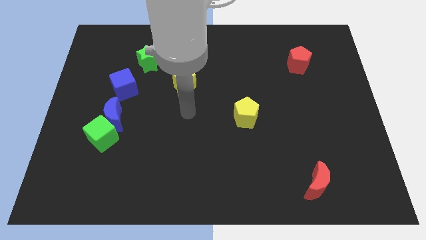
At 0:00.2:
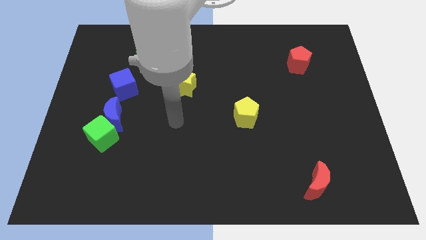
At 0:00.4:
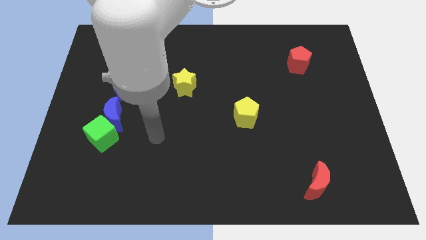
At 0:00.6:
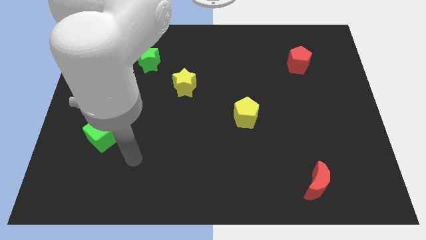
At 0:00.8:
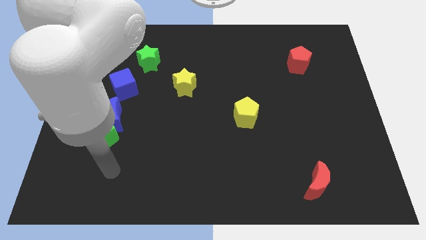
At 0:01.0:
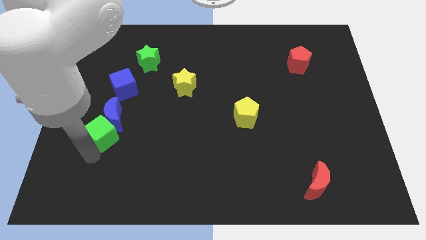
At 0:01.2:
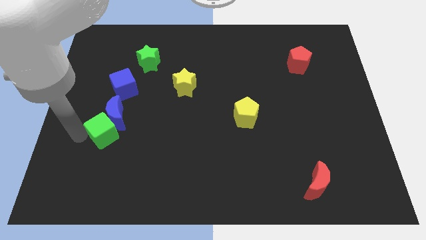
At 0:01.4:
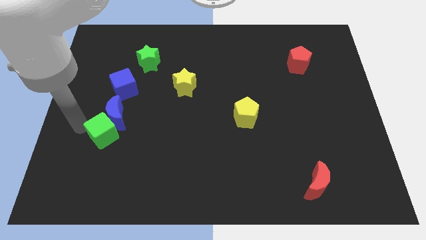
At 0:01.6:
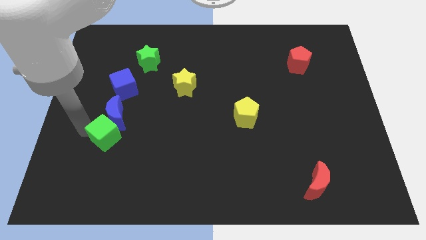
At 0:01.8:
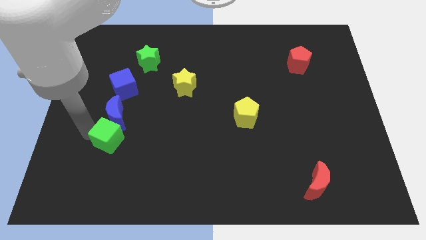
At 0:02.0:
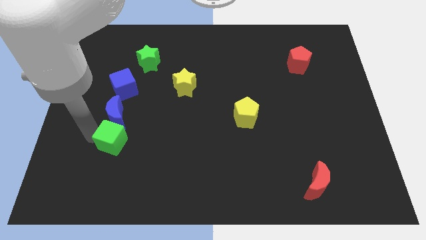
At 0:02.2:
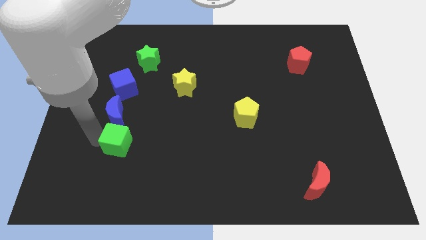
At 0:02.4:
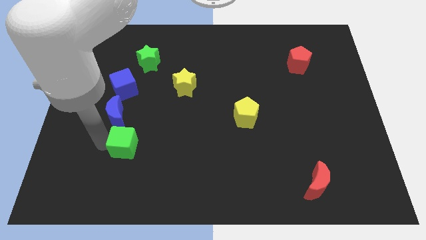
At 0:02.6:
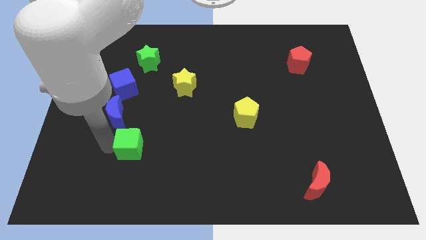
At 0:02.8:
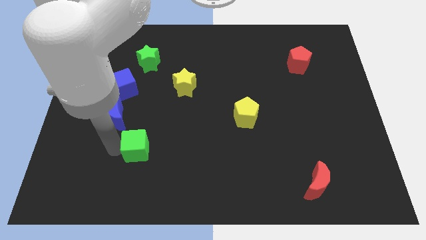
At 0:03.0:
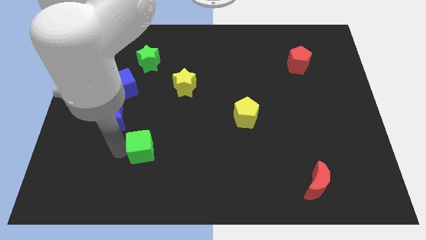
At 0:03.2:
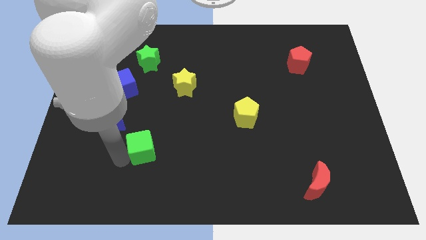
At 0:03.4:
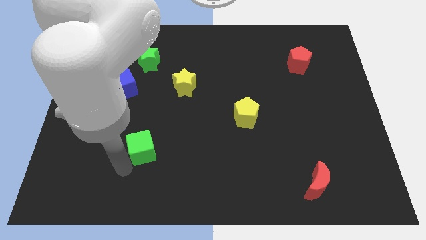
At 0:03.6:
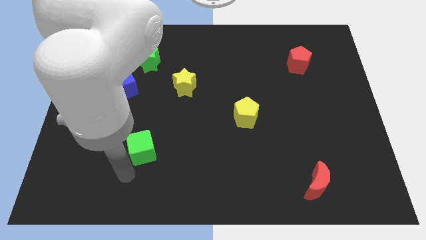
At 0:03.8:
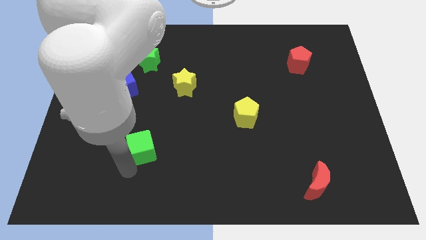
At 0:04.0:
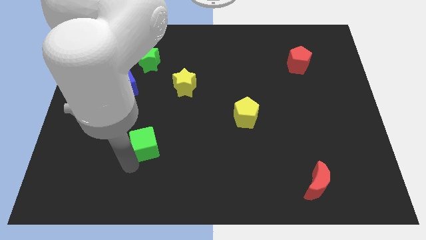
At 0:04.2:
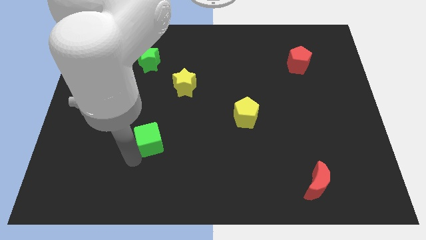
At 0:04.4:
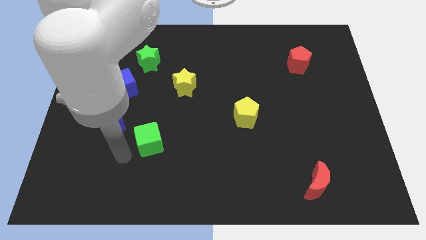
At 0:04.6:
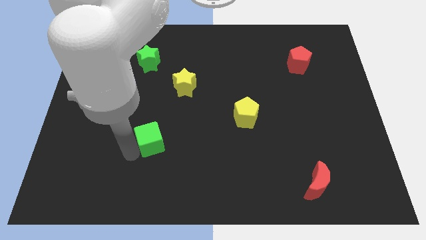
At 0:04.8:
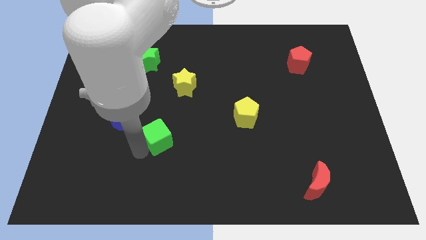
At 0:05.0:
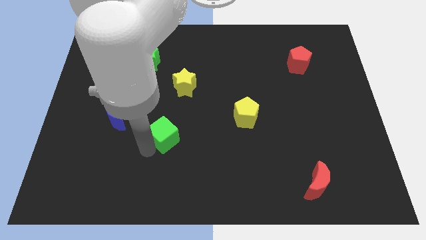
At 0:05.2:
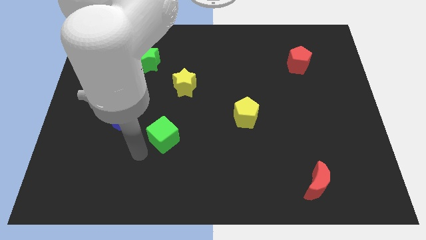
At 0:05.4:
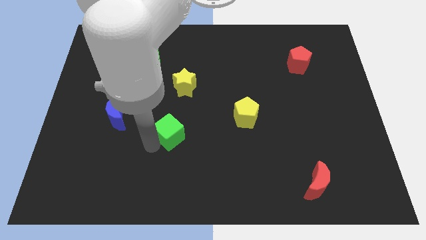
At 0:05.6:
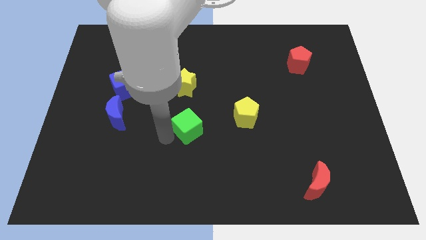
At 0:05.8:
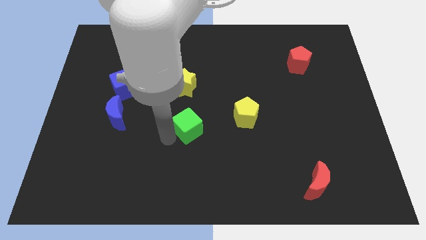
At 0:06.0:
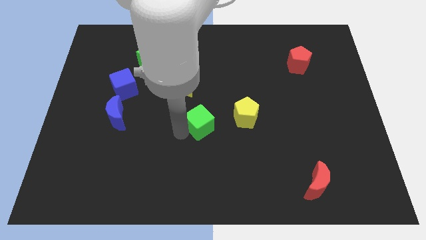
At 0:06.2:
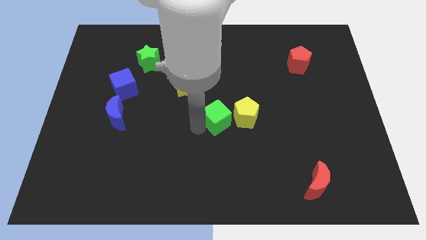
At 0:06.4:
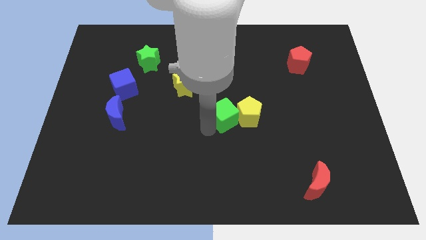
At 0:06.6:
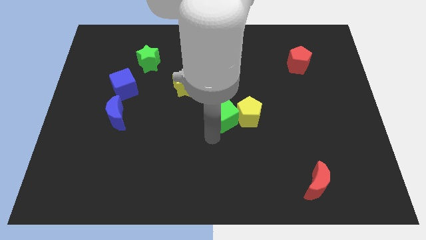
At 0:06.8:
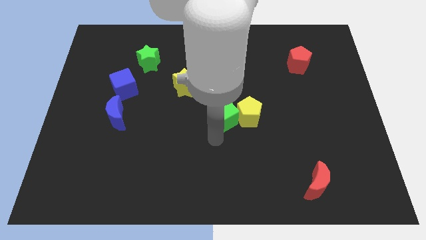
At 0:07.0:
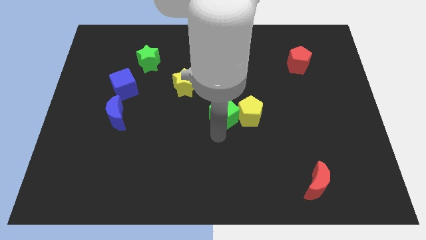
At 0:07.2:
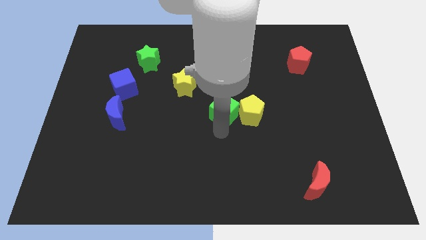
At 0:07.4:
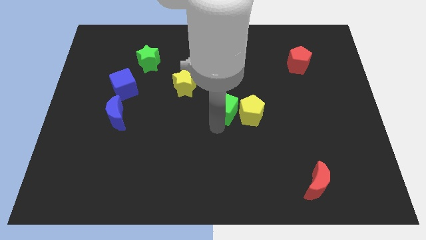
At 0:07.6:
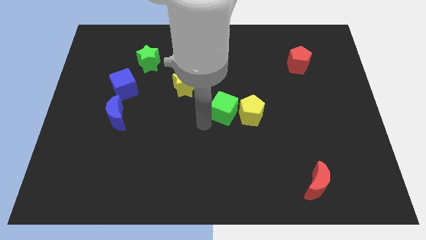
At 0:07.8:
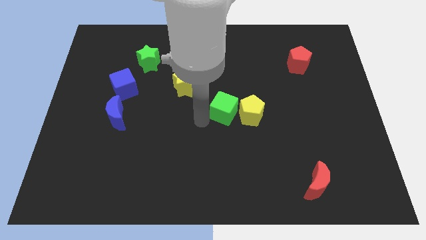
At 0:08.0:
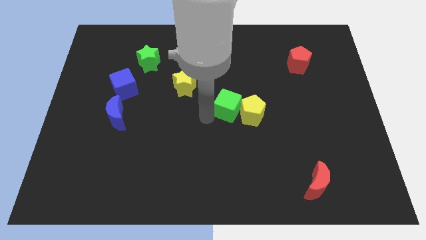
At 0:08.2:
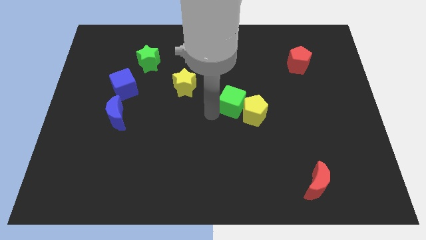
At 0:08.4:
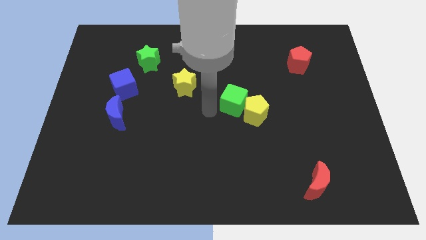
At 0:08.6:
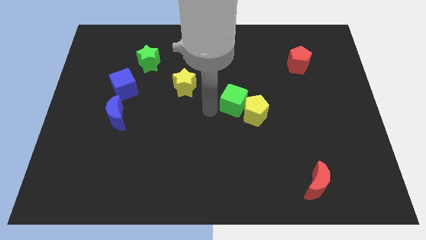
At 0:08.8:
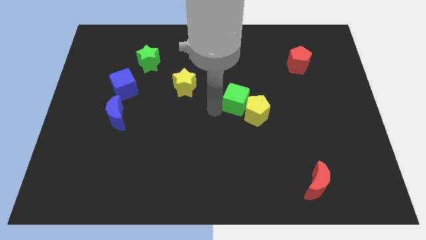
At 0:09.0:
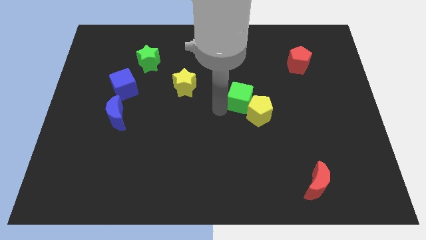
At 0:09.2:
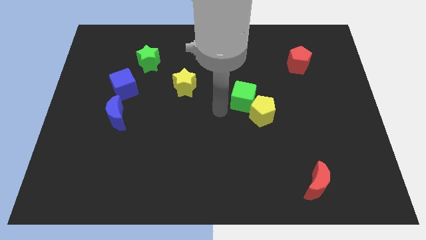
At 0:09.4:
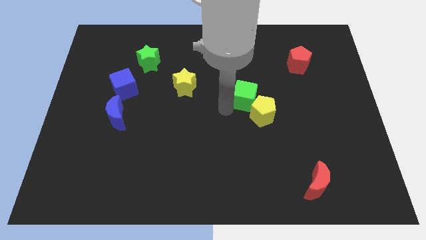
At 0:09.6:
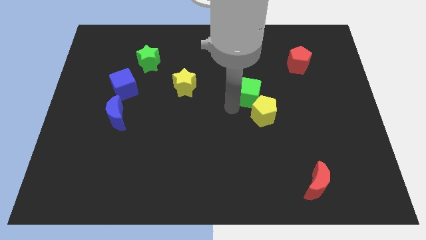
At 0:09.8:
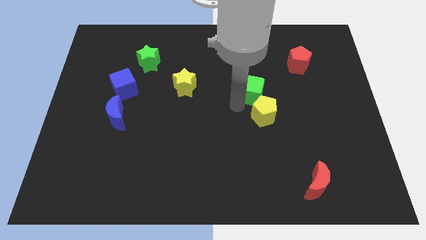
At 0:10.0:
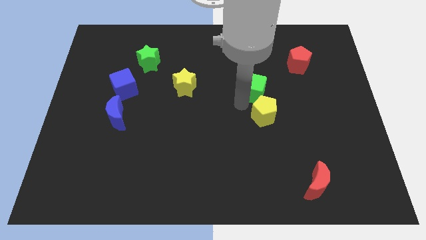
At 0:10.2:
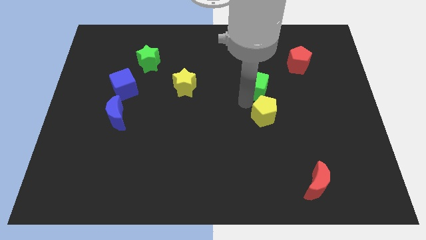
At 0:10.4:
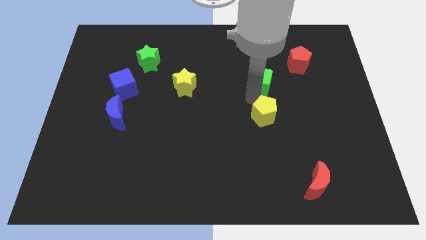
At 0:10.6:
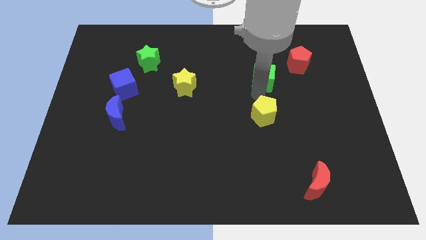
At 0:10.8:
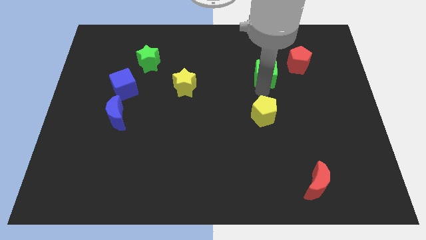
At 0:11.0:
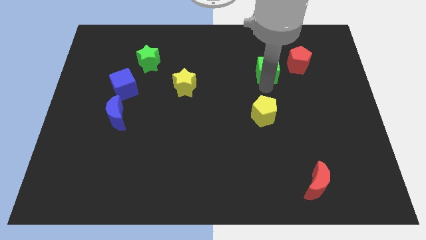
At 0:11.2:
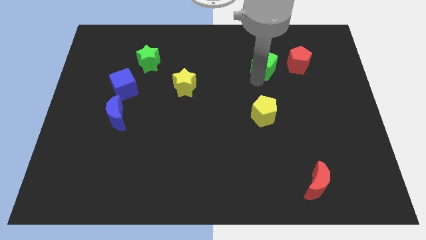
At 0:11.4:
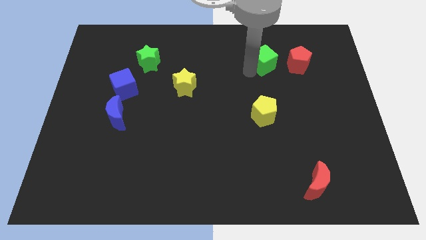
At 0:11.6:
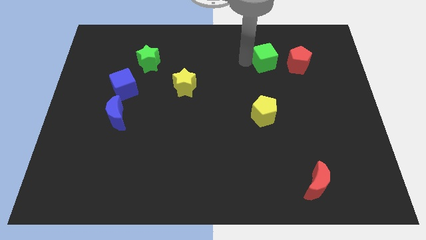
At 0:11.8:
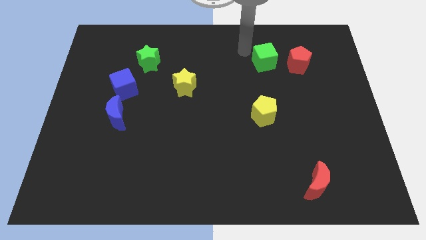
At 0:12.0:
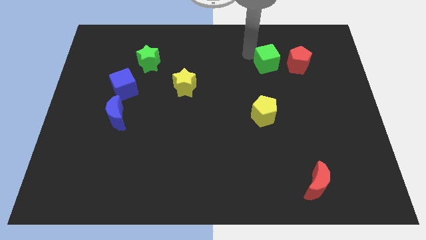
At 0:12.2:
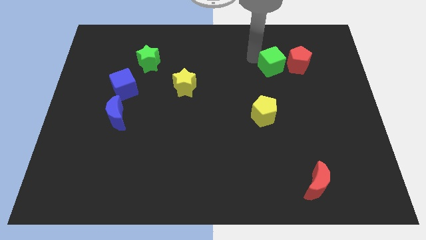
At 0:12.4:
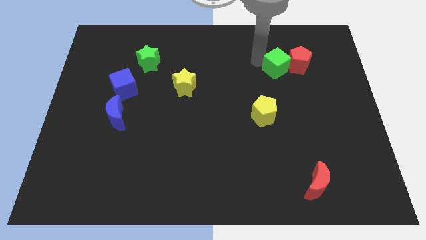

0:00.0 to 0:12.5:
put the green cube close to the red pentagon

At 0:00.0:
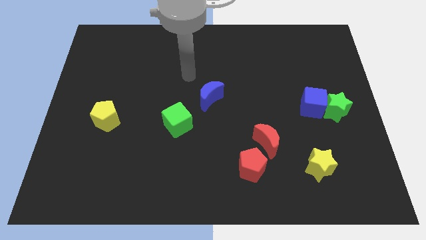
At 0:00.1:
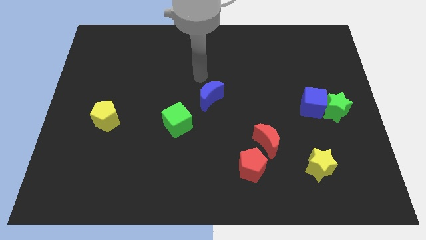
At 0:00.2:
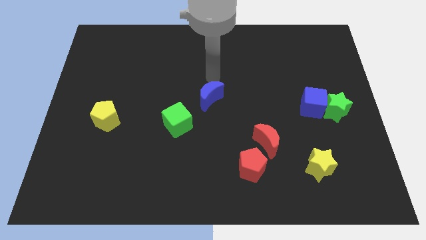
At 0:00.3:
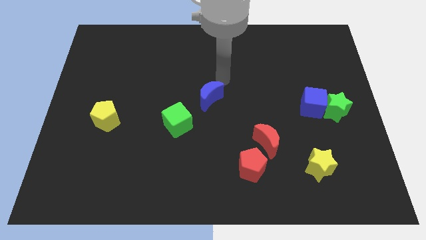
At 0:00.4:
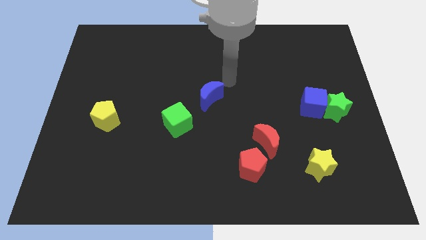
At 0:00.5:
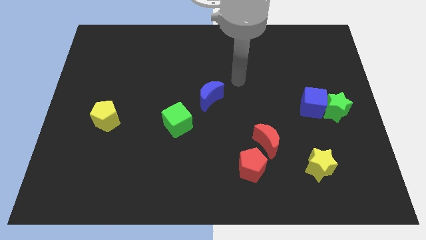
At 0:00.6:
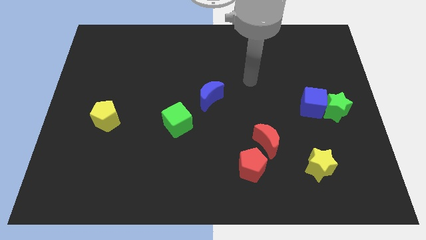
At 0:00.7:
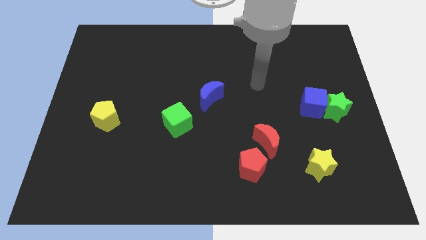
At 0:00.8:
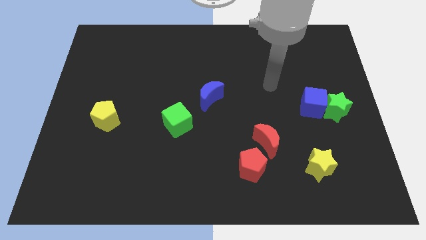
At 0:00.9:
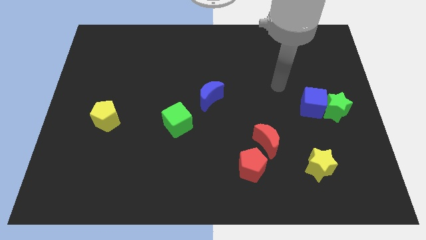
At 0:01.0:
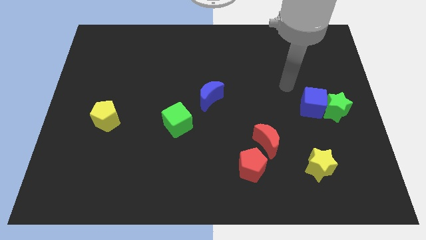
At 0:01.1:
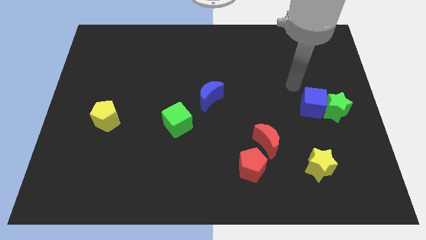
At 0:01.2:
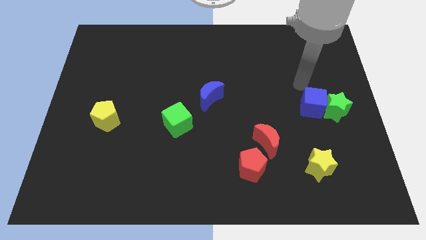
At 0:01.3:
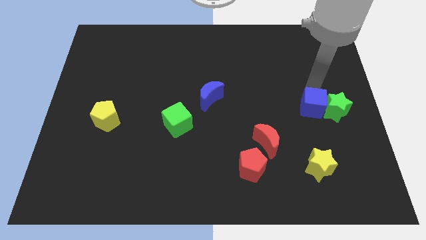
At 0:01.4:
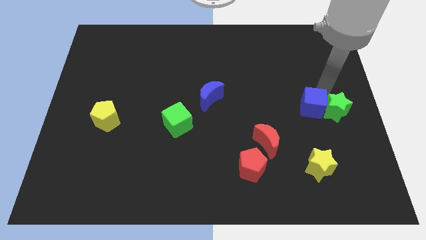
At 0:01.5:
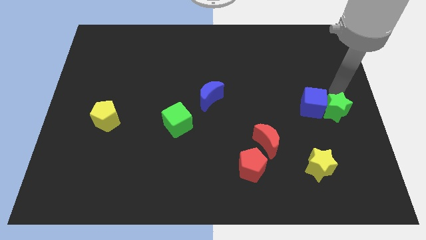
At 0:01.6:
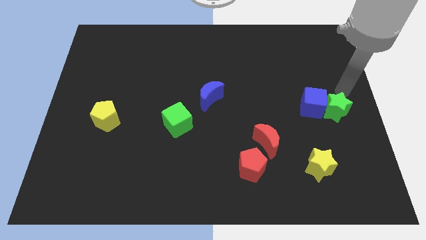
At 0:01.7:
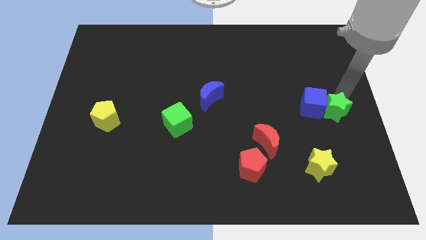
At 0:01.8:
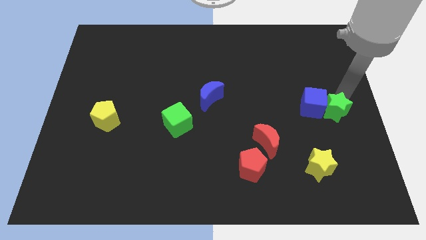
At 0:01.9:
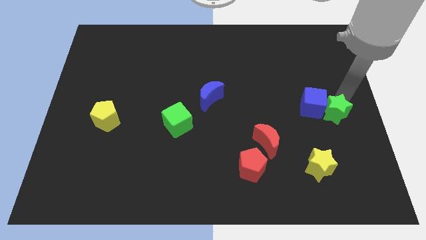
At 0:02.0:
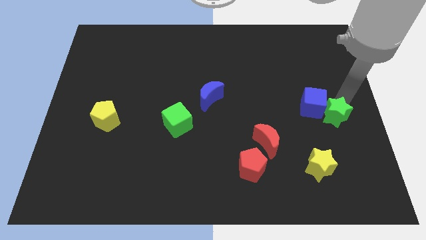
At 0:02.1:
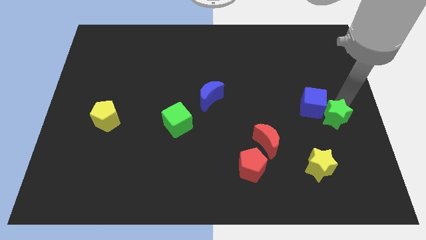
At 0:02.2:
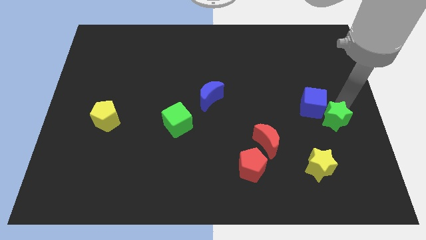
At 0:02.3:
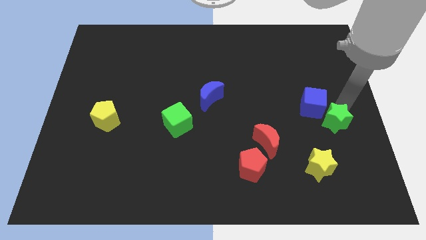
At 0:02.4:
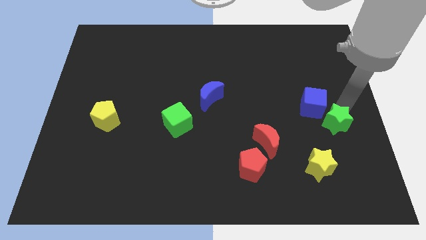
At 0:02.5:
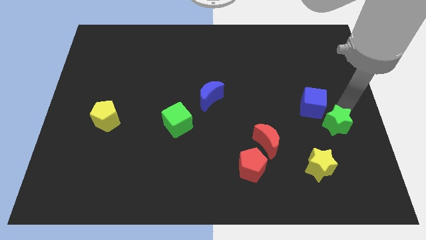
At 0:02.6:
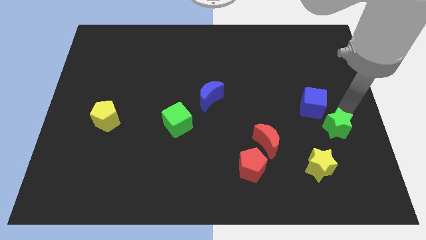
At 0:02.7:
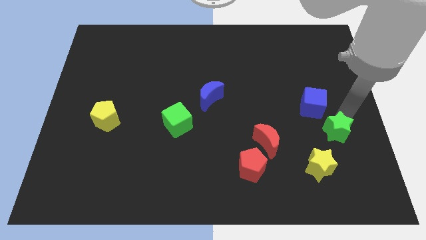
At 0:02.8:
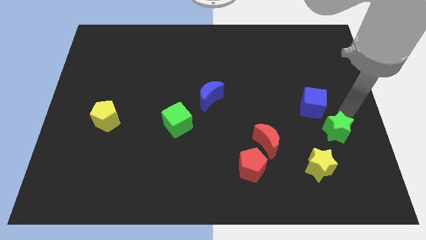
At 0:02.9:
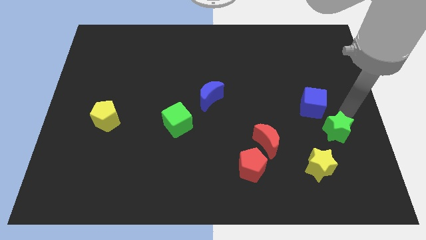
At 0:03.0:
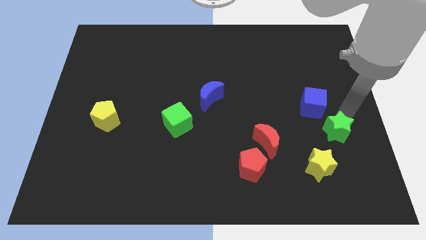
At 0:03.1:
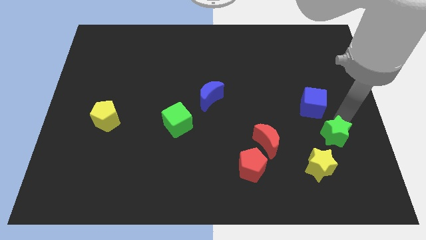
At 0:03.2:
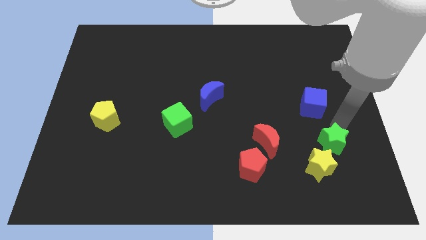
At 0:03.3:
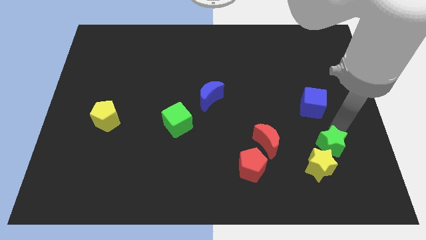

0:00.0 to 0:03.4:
put the green star close to the yellow star
